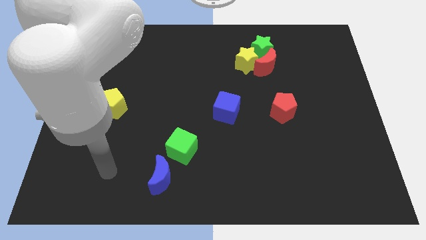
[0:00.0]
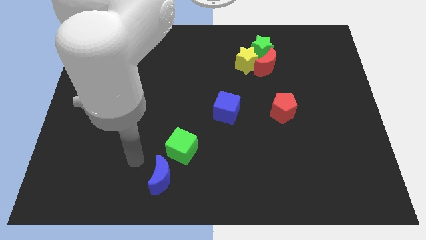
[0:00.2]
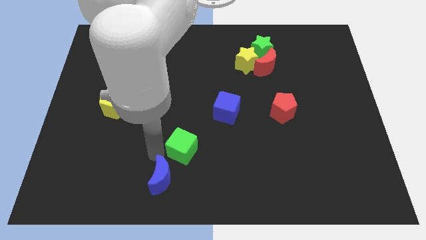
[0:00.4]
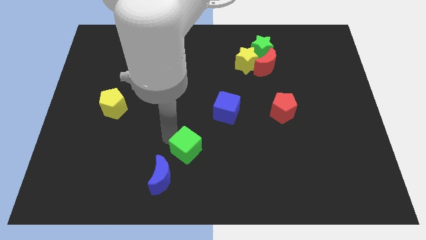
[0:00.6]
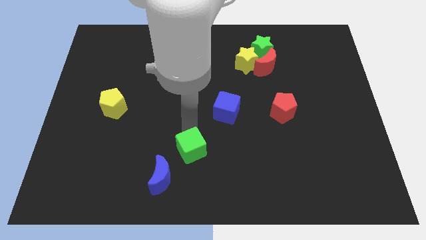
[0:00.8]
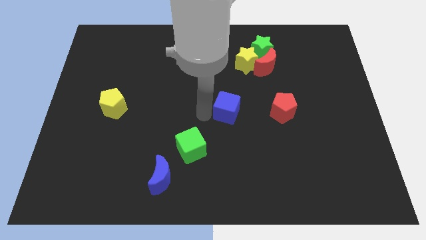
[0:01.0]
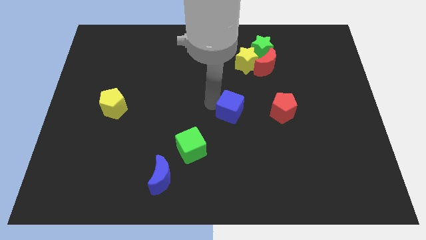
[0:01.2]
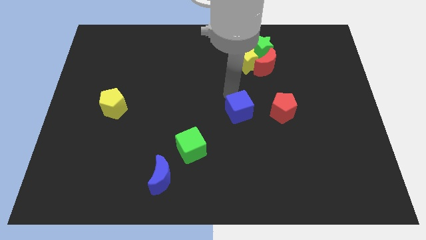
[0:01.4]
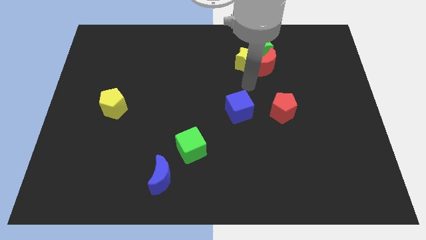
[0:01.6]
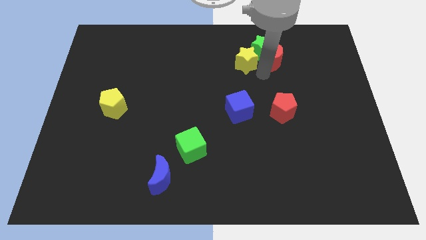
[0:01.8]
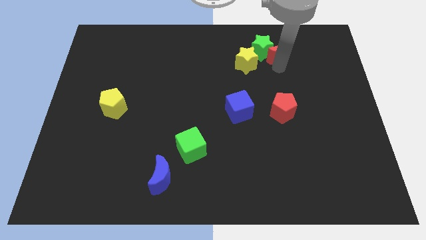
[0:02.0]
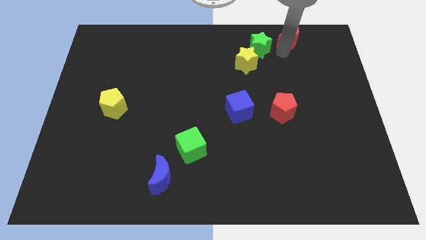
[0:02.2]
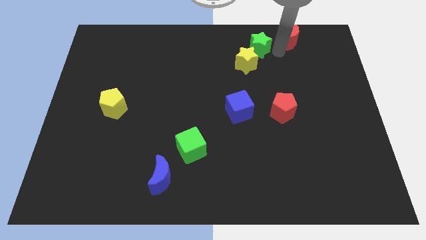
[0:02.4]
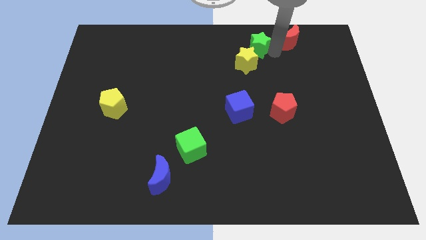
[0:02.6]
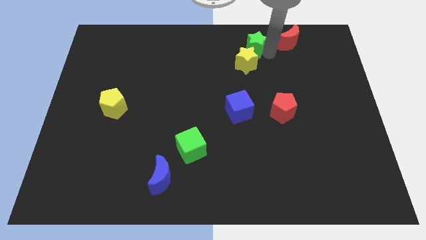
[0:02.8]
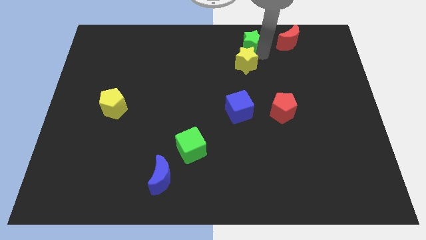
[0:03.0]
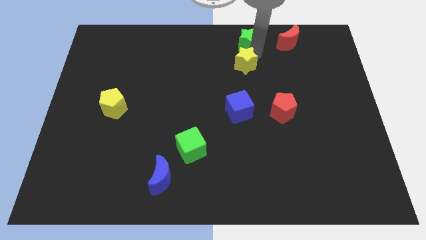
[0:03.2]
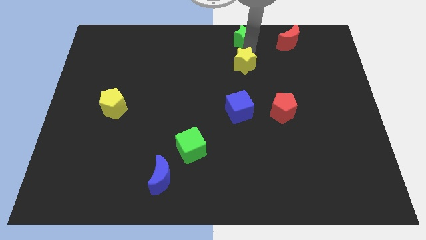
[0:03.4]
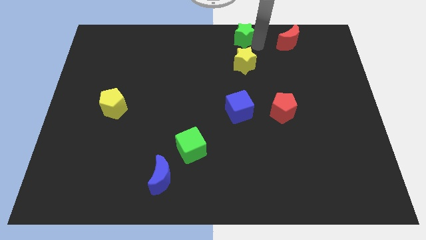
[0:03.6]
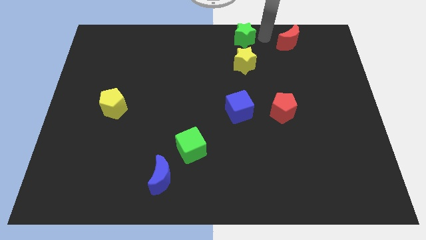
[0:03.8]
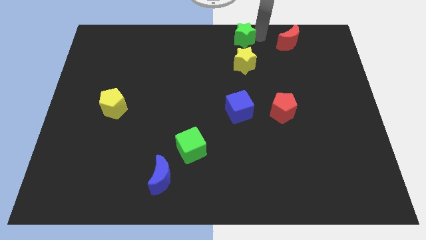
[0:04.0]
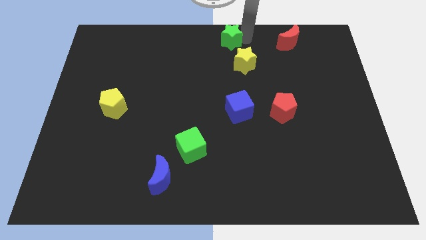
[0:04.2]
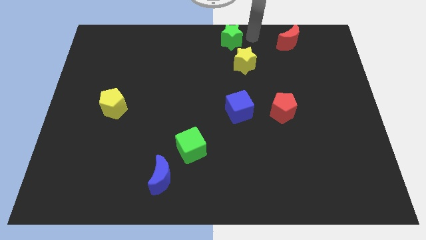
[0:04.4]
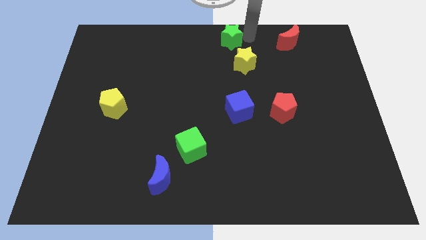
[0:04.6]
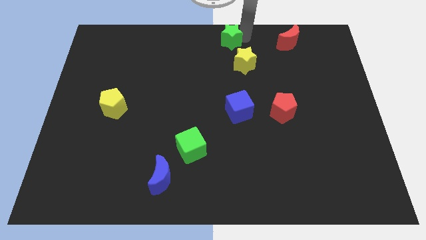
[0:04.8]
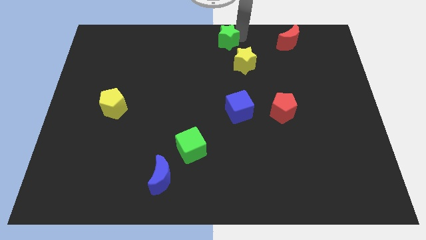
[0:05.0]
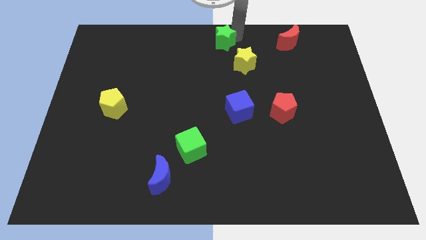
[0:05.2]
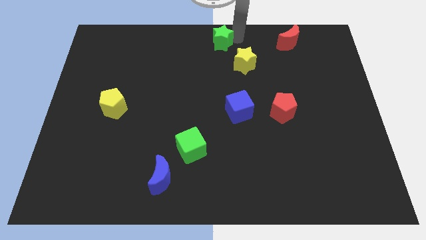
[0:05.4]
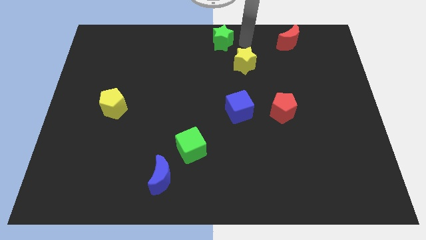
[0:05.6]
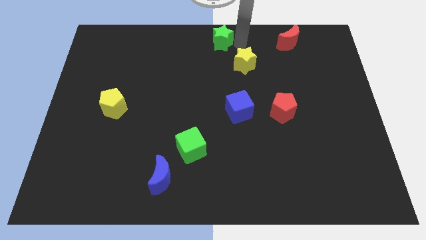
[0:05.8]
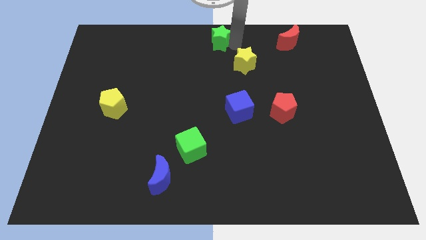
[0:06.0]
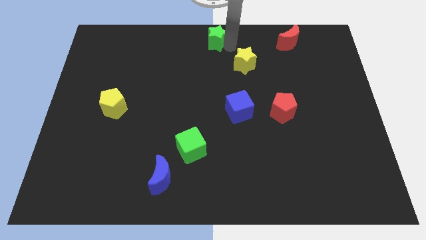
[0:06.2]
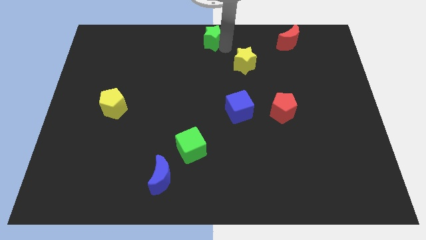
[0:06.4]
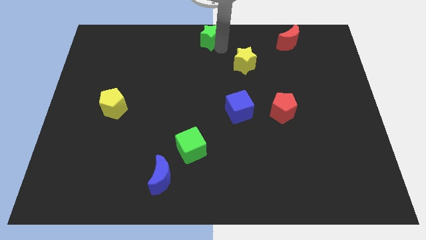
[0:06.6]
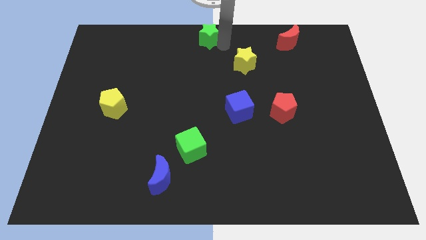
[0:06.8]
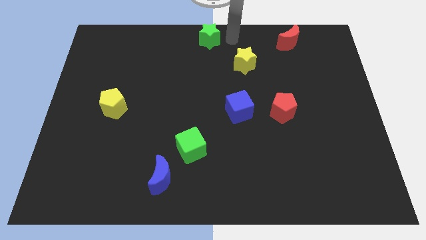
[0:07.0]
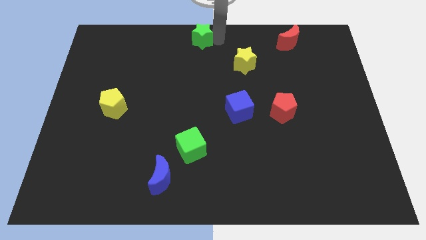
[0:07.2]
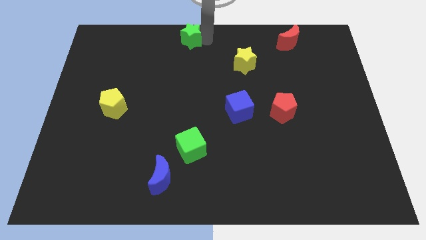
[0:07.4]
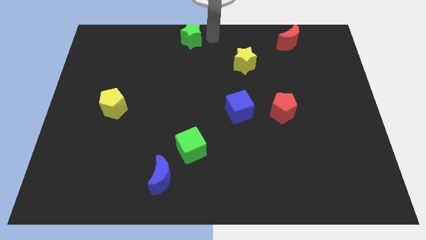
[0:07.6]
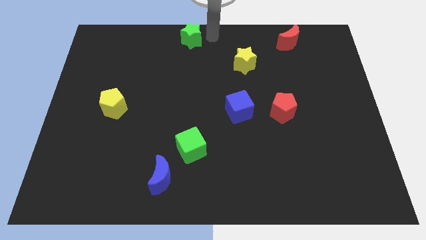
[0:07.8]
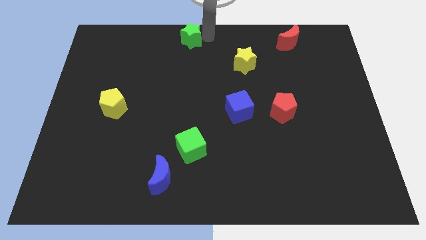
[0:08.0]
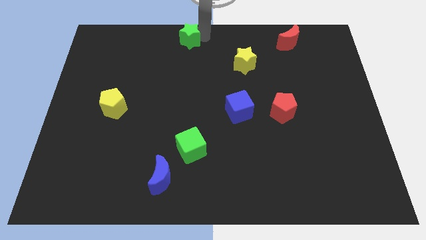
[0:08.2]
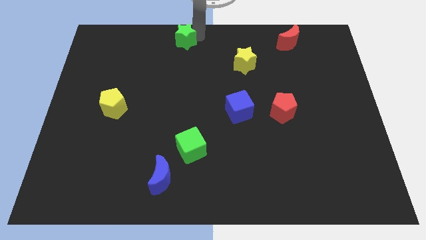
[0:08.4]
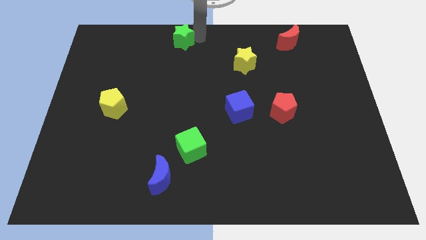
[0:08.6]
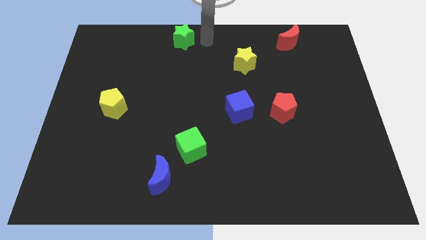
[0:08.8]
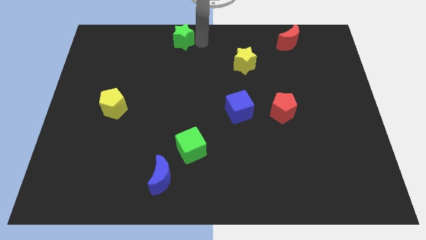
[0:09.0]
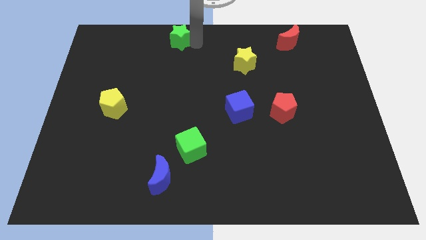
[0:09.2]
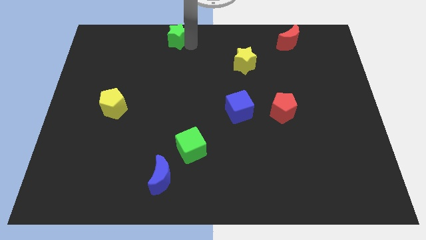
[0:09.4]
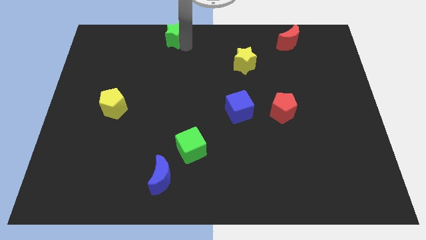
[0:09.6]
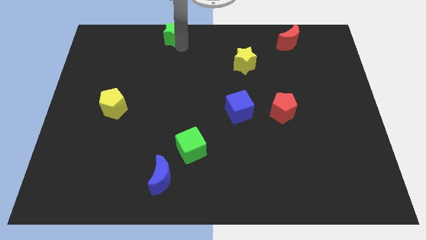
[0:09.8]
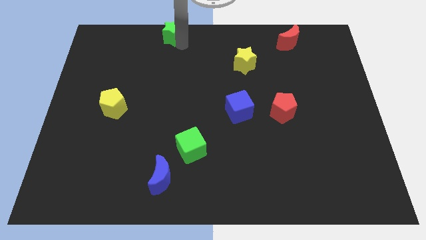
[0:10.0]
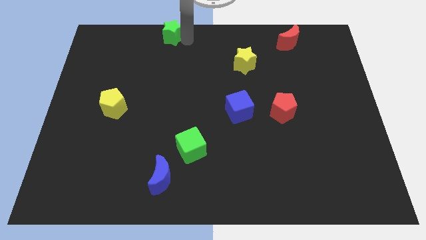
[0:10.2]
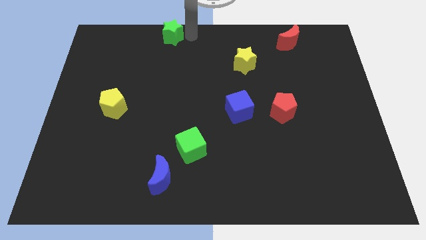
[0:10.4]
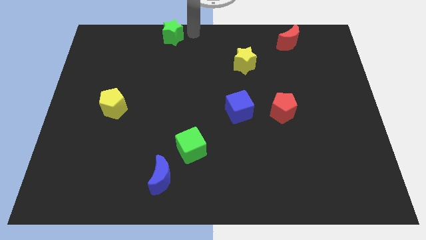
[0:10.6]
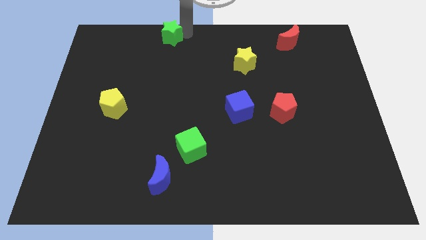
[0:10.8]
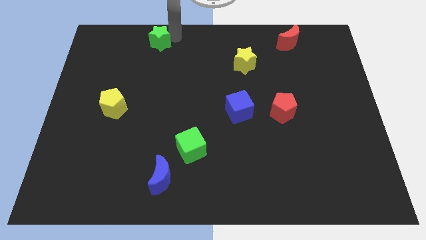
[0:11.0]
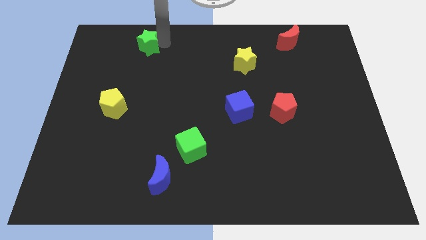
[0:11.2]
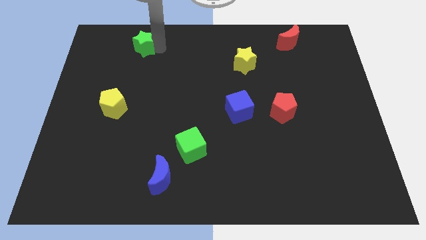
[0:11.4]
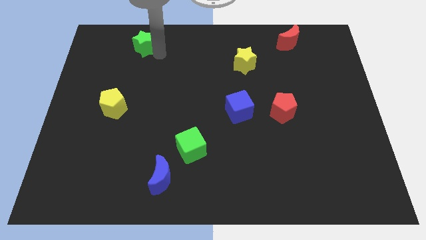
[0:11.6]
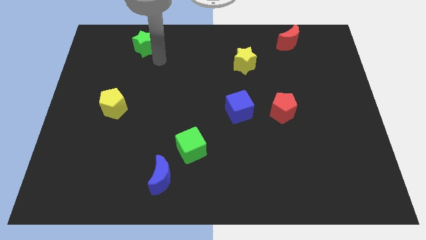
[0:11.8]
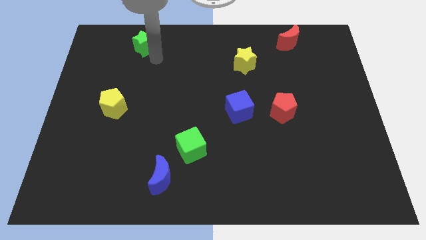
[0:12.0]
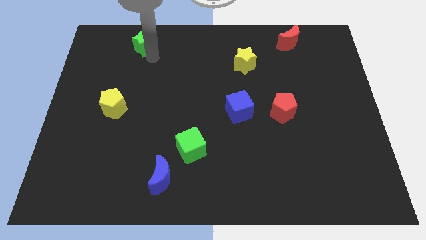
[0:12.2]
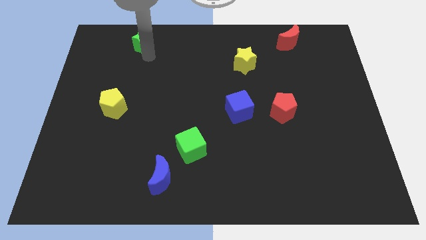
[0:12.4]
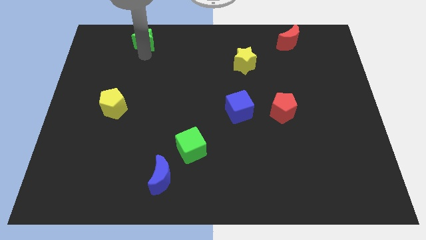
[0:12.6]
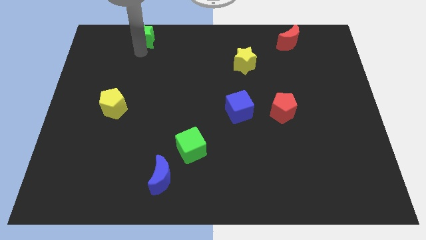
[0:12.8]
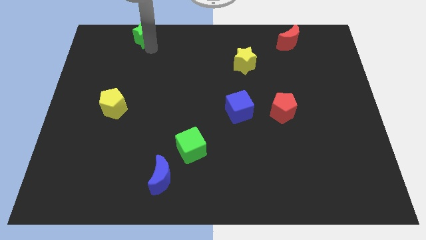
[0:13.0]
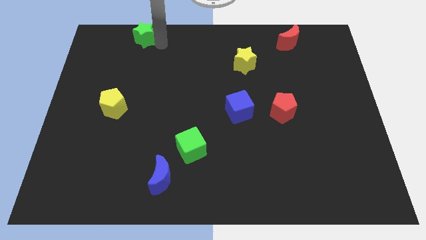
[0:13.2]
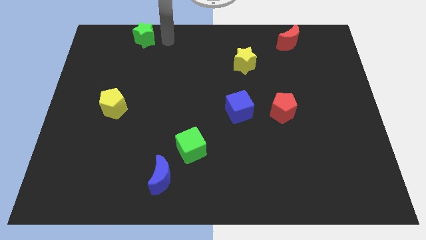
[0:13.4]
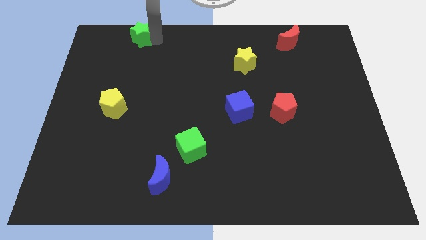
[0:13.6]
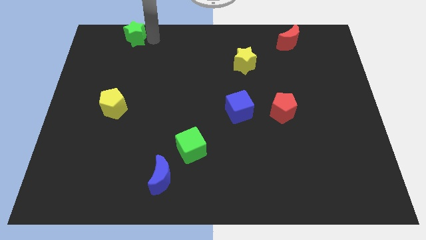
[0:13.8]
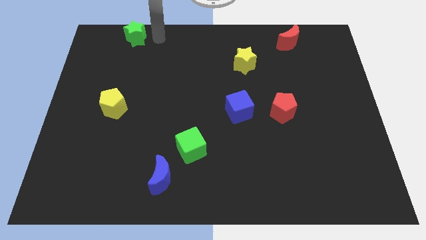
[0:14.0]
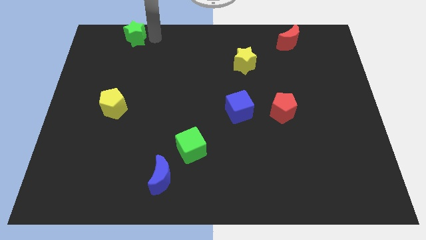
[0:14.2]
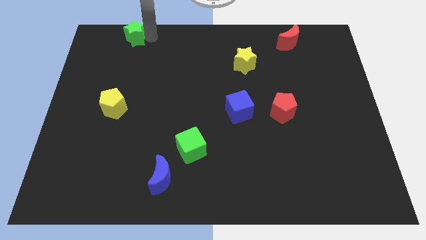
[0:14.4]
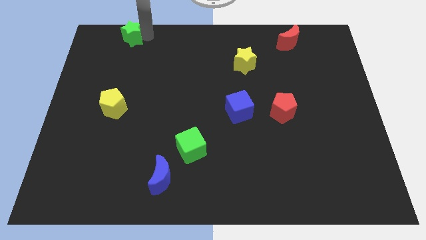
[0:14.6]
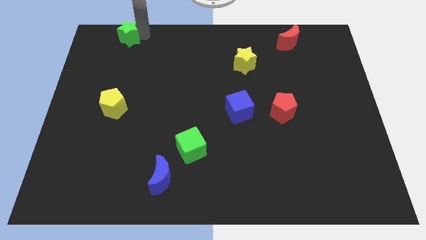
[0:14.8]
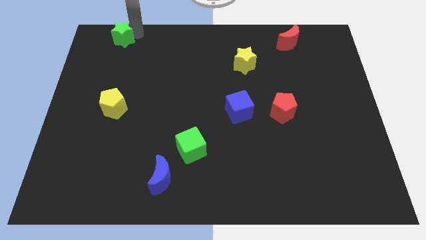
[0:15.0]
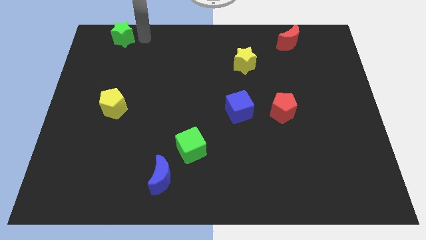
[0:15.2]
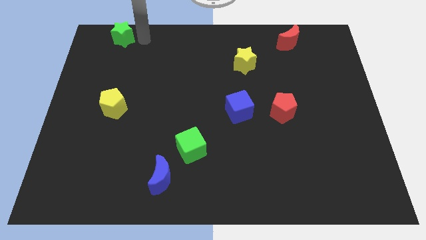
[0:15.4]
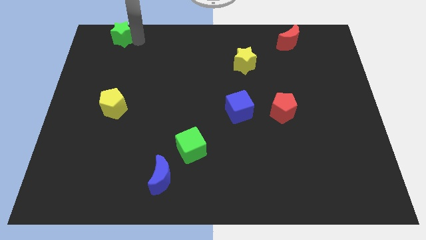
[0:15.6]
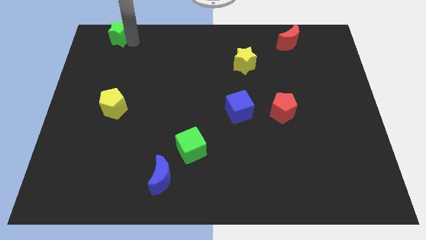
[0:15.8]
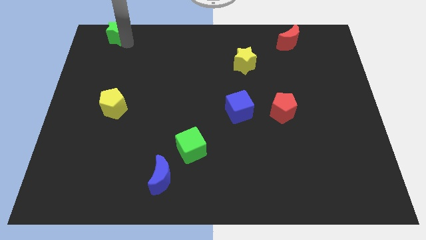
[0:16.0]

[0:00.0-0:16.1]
slide the green star to the upper left corner
